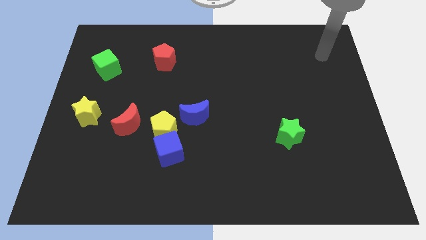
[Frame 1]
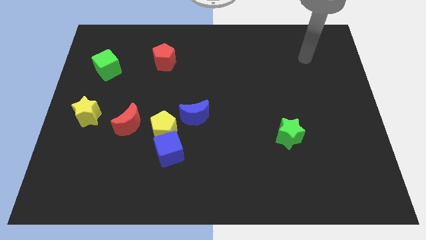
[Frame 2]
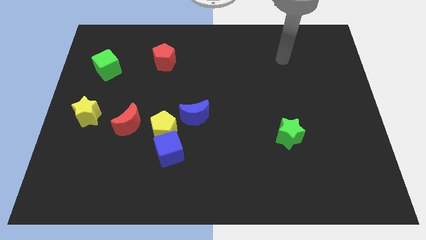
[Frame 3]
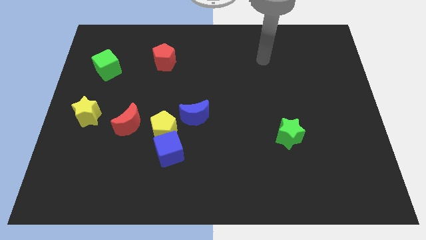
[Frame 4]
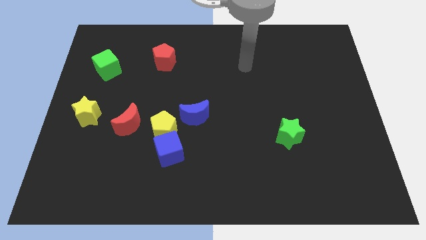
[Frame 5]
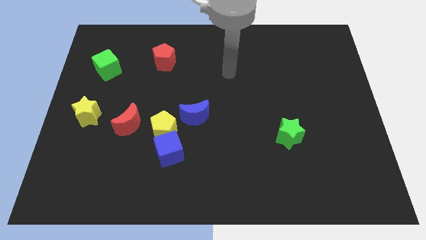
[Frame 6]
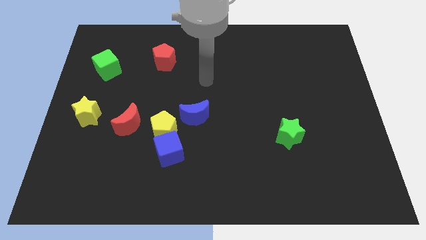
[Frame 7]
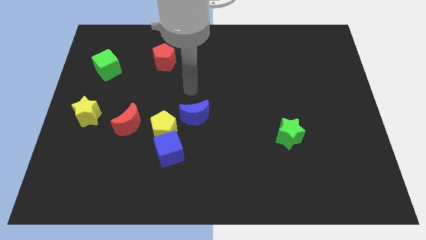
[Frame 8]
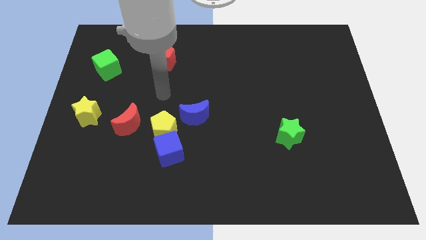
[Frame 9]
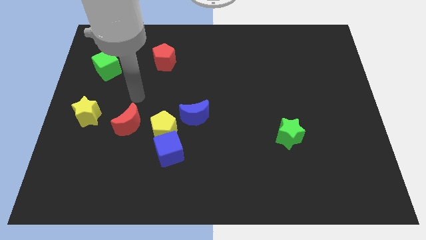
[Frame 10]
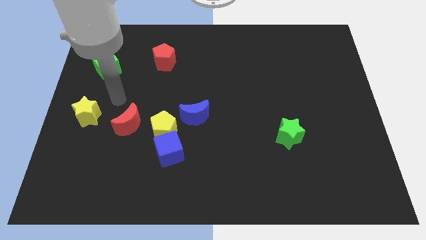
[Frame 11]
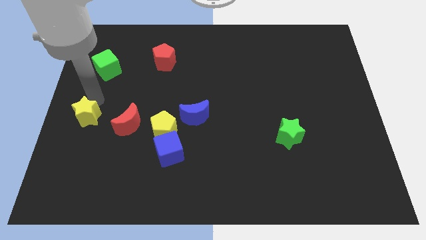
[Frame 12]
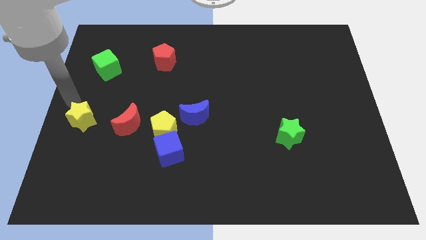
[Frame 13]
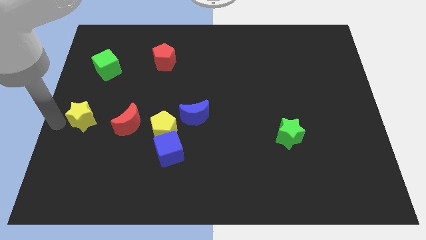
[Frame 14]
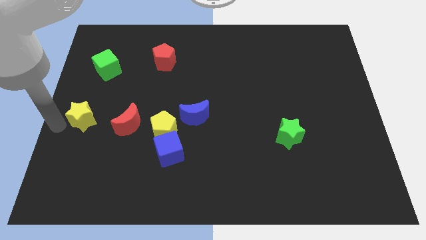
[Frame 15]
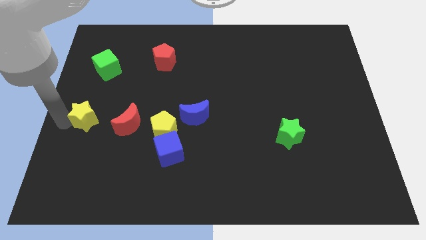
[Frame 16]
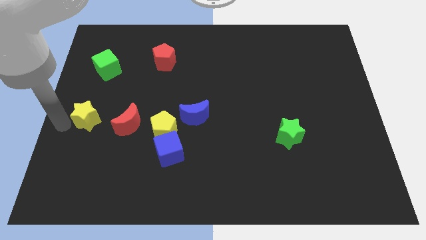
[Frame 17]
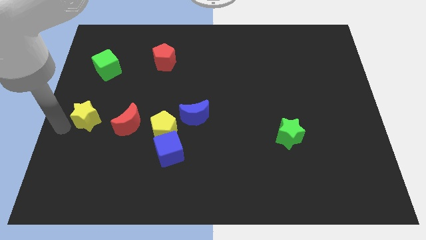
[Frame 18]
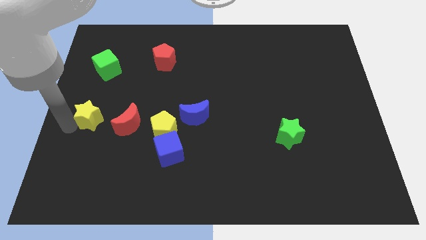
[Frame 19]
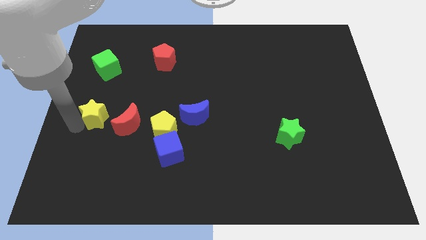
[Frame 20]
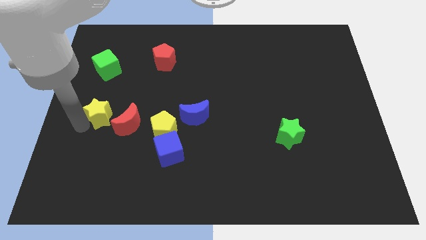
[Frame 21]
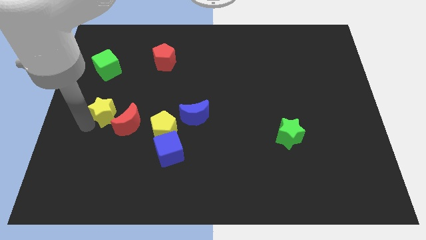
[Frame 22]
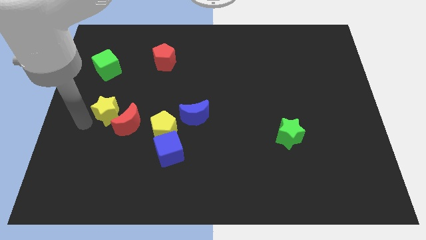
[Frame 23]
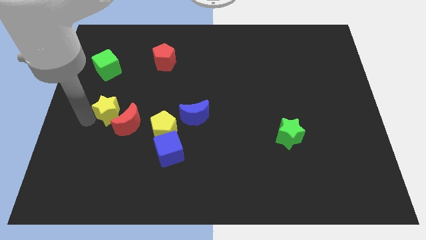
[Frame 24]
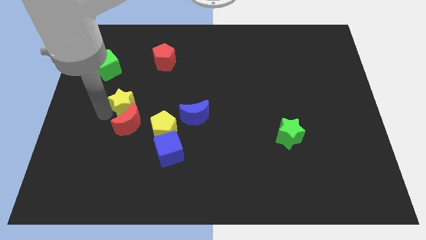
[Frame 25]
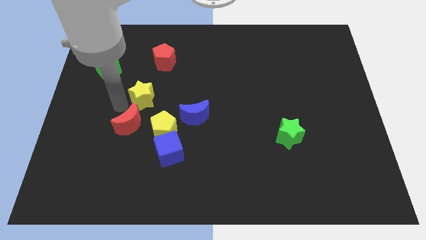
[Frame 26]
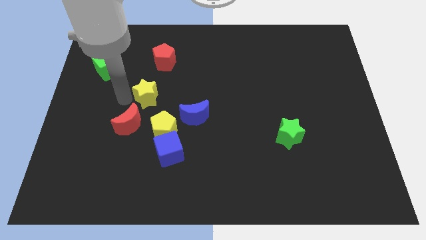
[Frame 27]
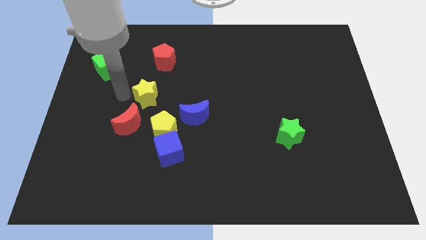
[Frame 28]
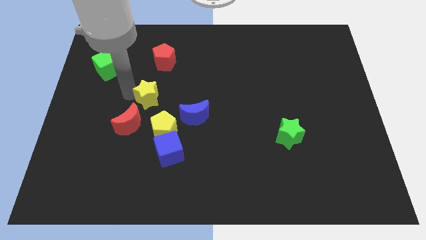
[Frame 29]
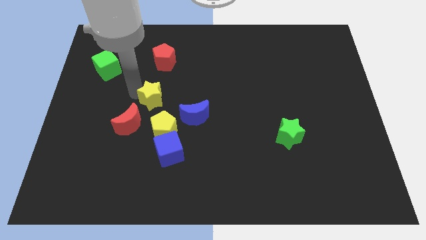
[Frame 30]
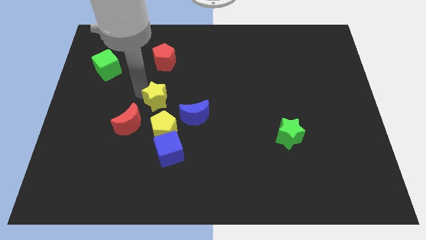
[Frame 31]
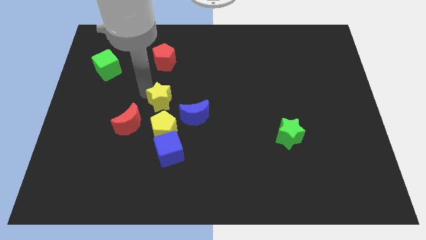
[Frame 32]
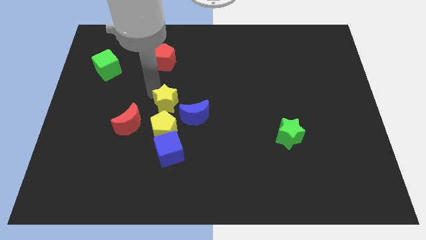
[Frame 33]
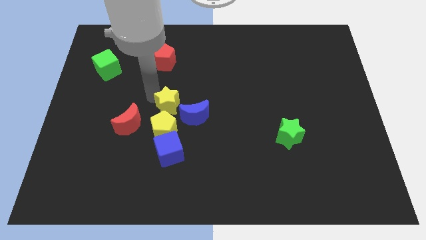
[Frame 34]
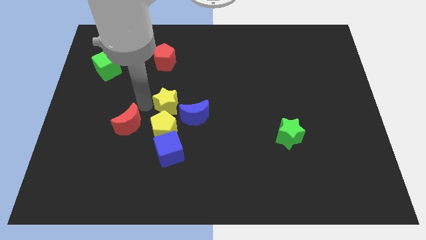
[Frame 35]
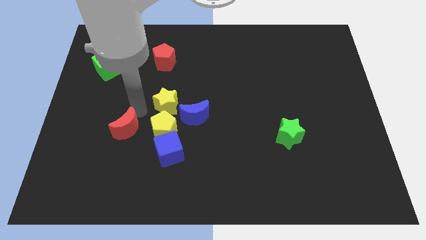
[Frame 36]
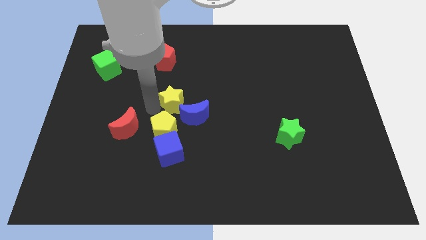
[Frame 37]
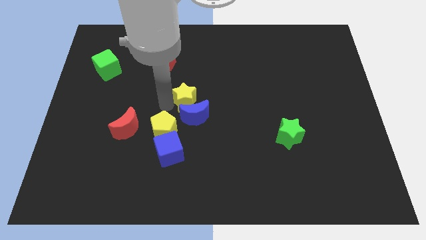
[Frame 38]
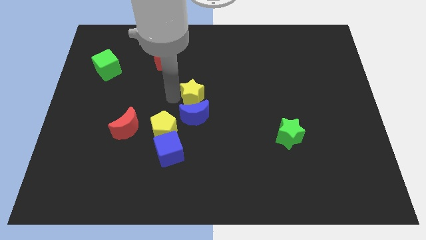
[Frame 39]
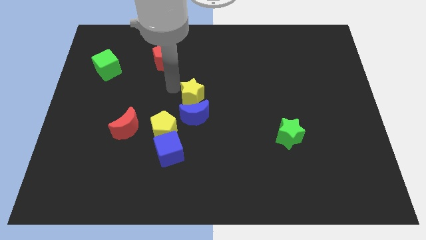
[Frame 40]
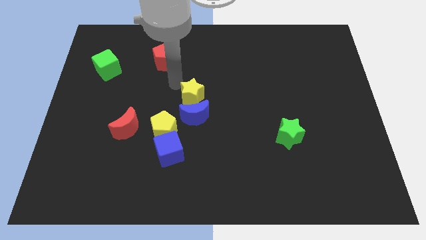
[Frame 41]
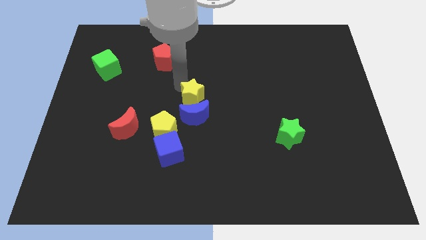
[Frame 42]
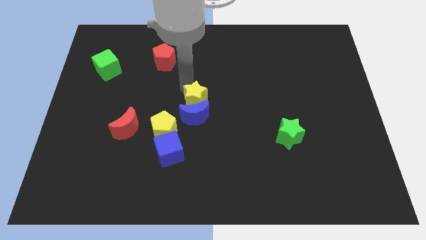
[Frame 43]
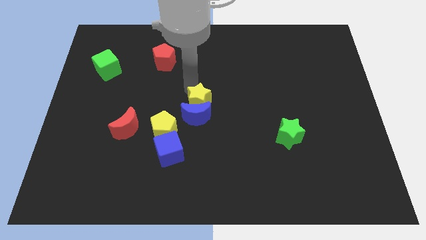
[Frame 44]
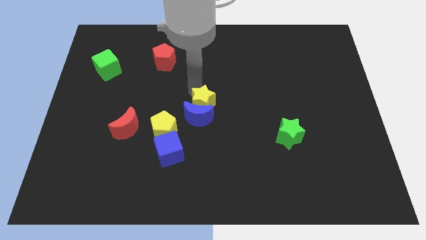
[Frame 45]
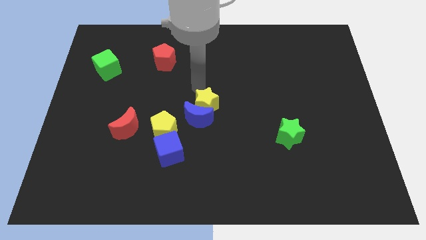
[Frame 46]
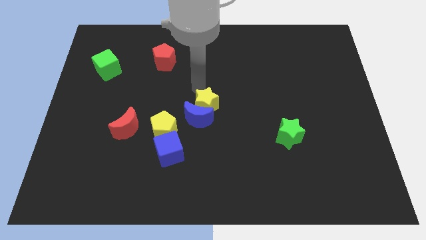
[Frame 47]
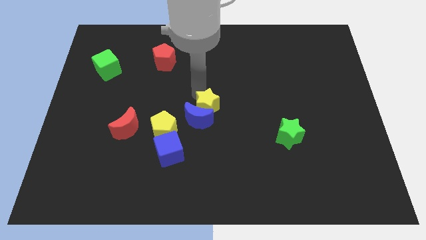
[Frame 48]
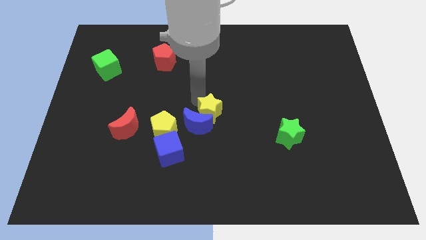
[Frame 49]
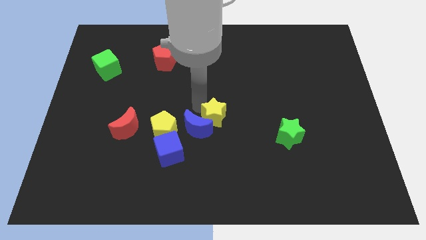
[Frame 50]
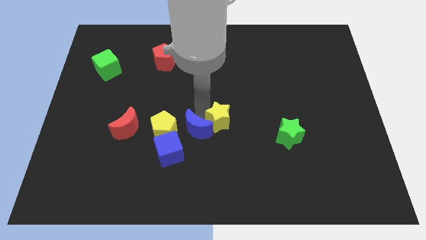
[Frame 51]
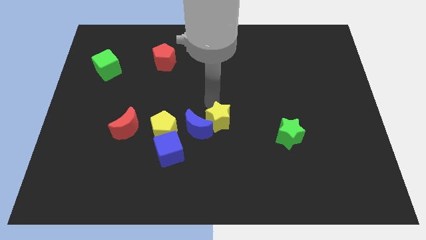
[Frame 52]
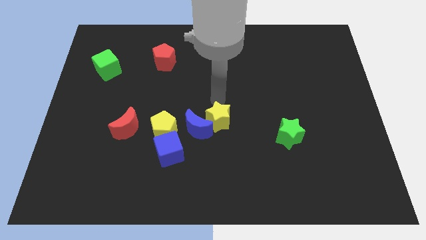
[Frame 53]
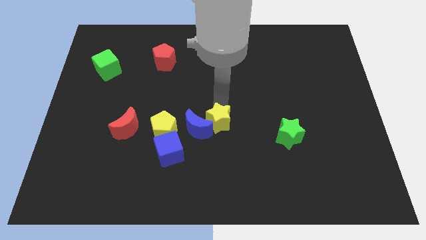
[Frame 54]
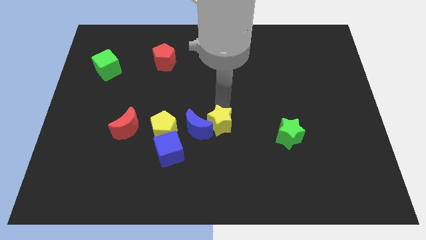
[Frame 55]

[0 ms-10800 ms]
move the yellow star to the bottom right side of the blue moon

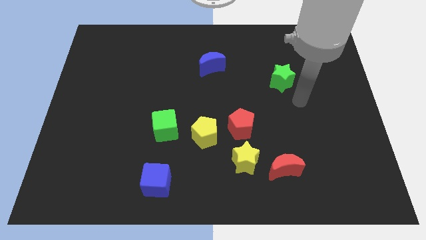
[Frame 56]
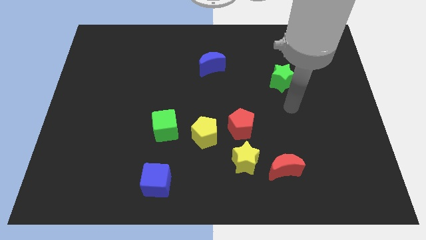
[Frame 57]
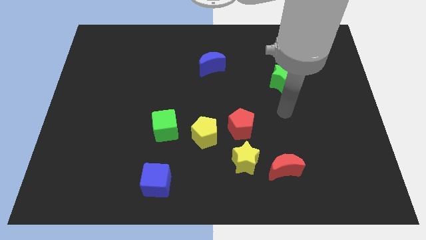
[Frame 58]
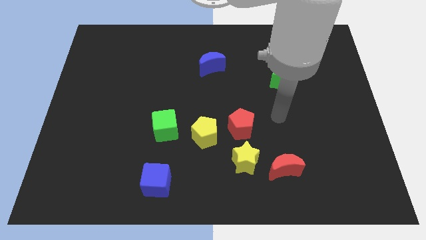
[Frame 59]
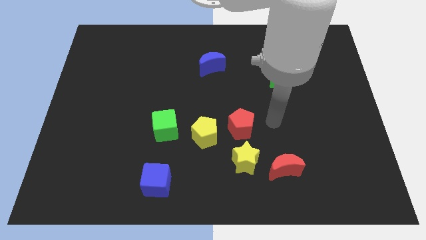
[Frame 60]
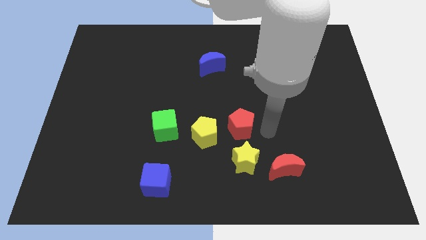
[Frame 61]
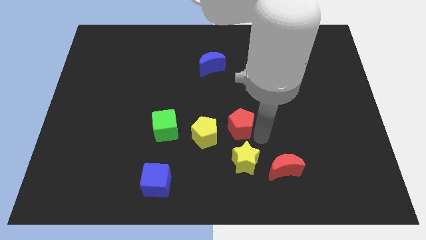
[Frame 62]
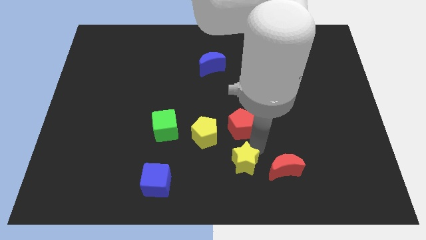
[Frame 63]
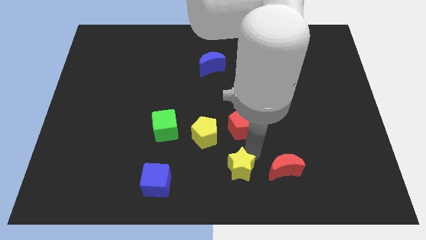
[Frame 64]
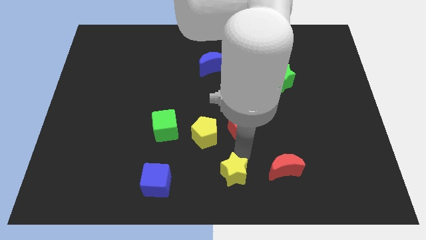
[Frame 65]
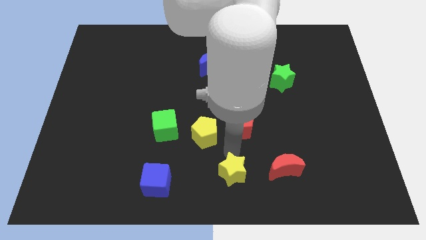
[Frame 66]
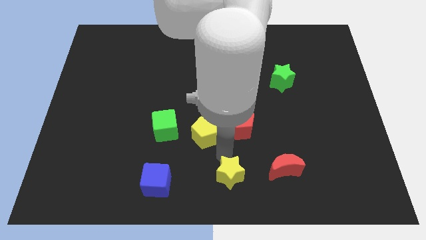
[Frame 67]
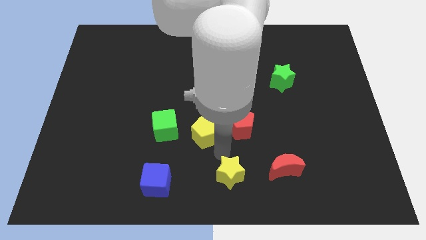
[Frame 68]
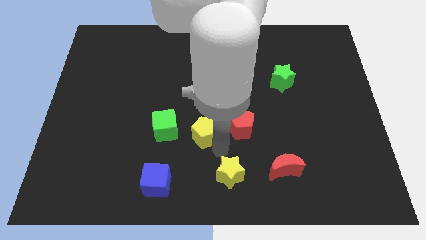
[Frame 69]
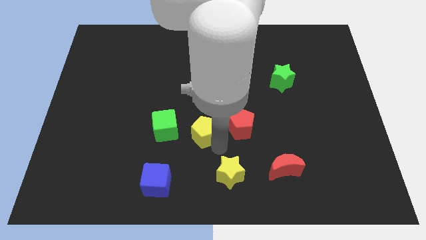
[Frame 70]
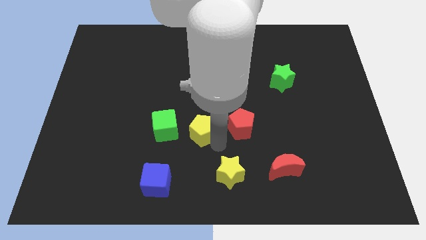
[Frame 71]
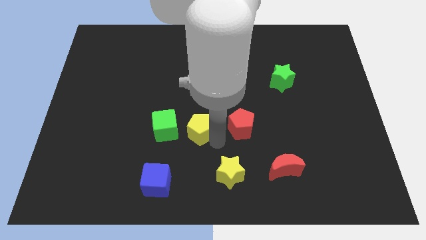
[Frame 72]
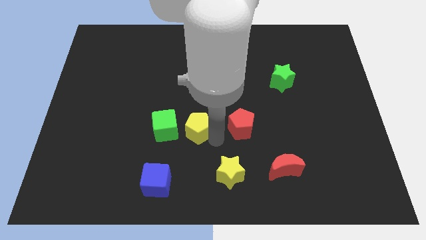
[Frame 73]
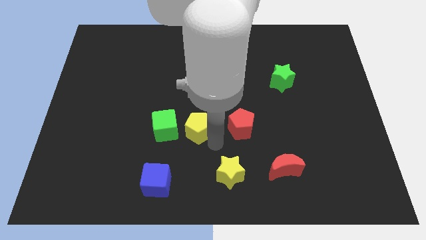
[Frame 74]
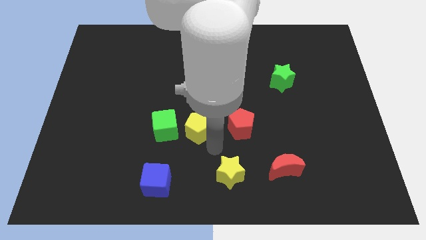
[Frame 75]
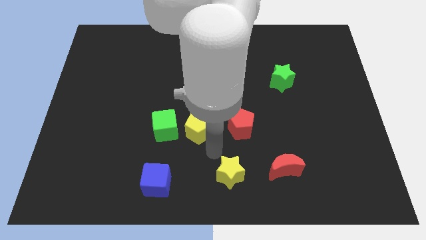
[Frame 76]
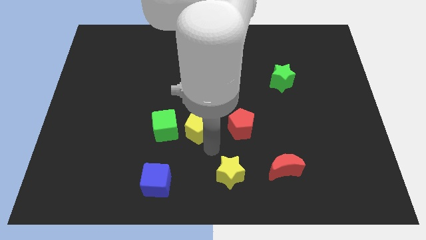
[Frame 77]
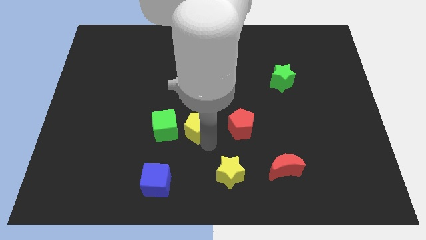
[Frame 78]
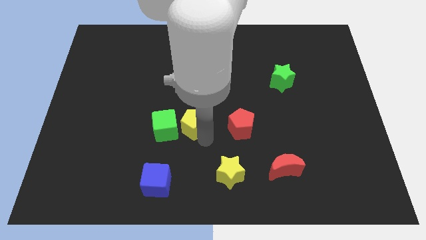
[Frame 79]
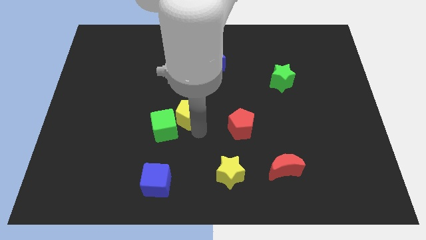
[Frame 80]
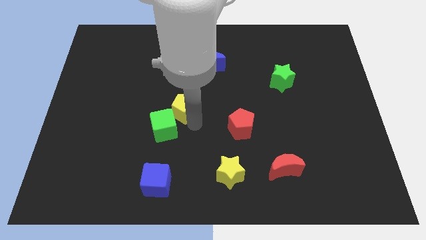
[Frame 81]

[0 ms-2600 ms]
push the yellow pentagon to the top of the green cube
